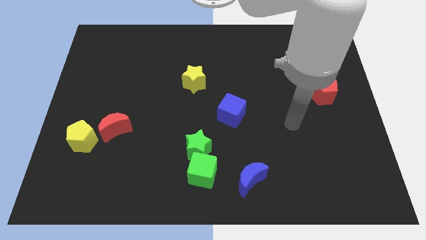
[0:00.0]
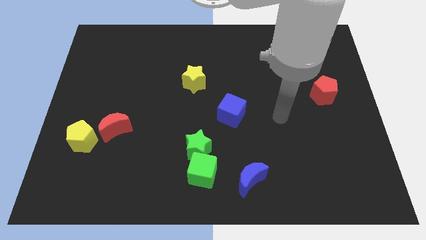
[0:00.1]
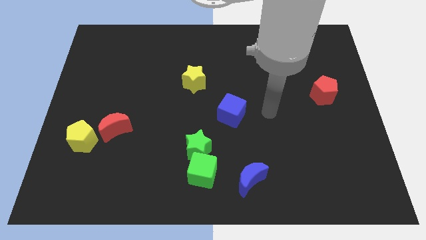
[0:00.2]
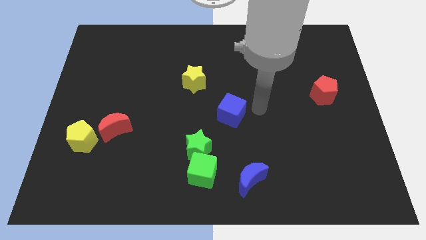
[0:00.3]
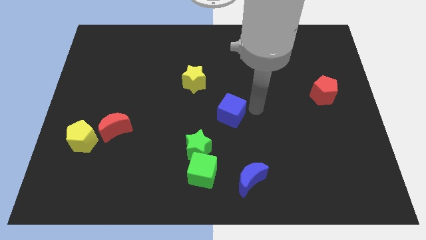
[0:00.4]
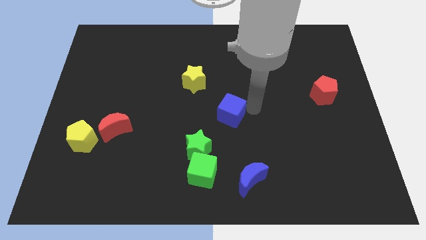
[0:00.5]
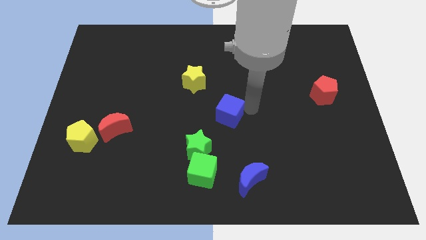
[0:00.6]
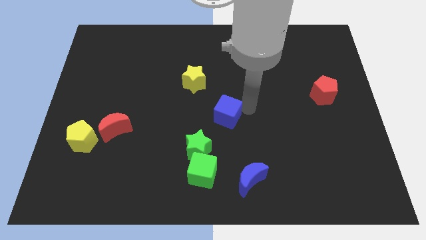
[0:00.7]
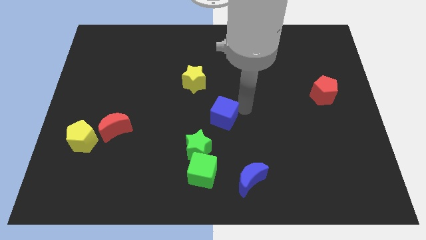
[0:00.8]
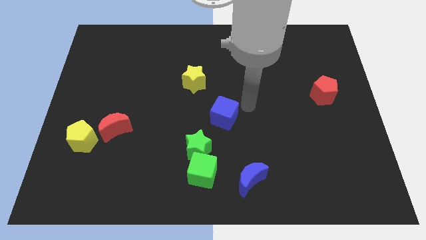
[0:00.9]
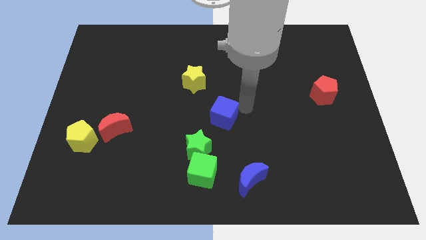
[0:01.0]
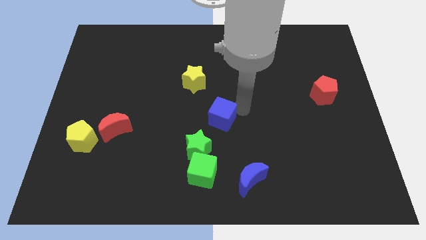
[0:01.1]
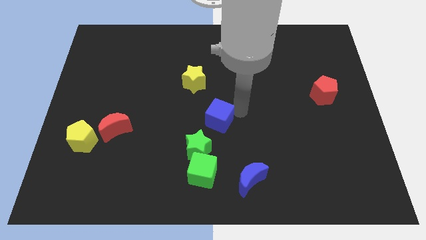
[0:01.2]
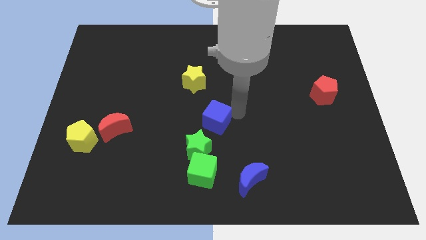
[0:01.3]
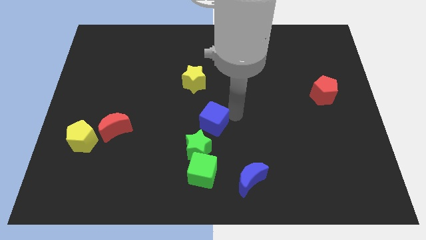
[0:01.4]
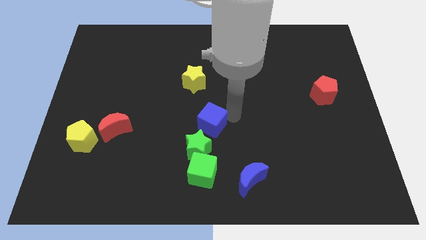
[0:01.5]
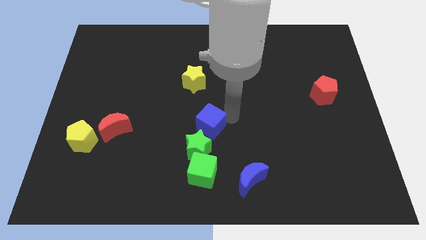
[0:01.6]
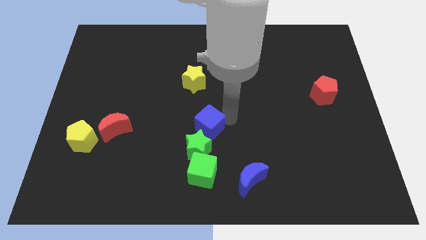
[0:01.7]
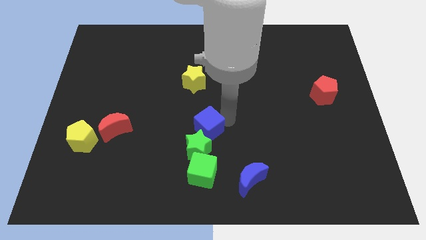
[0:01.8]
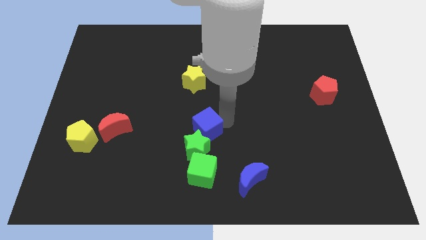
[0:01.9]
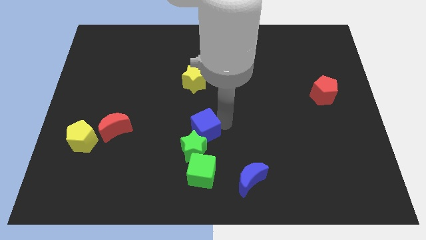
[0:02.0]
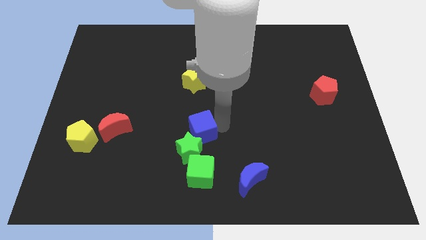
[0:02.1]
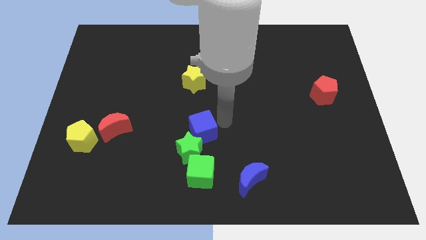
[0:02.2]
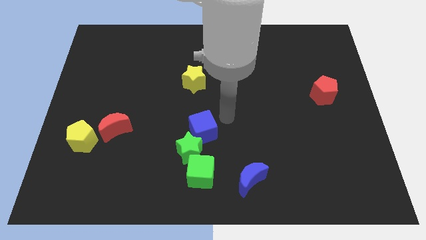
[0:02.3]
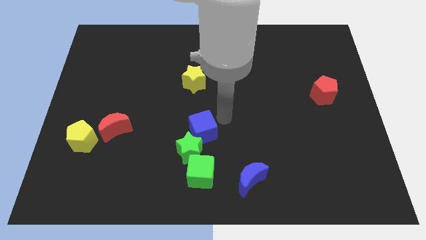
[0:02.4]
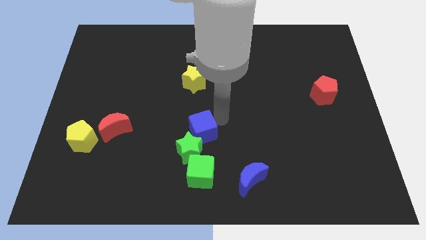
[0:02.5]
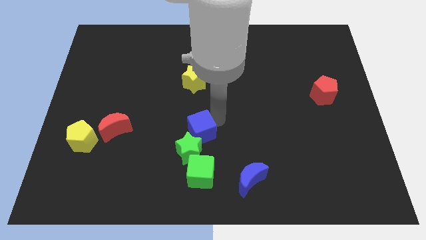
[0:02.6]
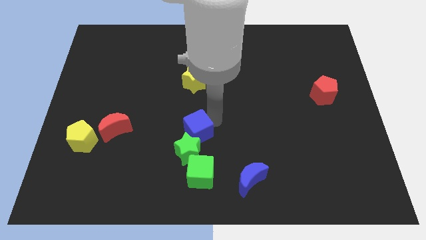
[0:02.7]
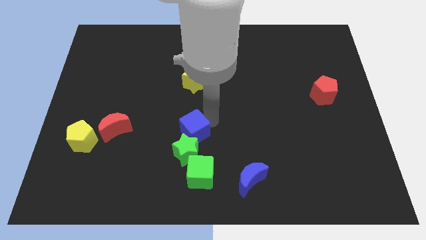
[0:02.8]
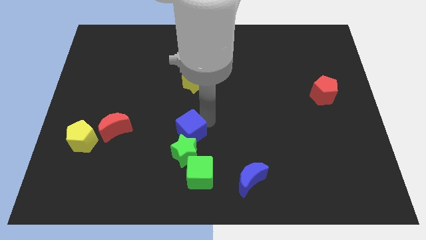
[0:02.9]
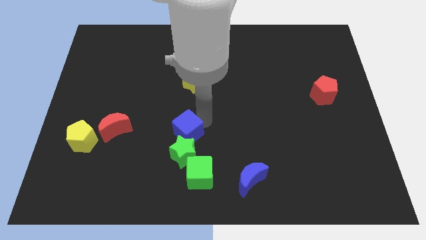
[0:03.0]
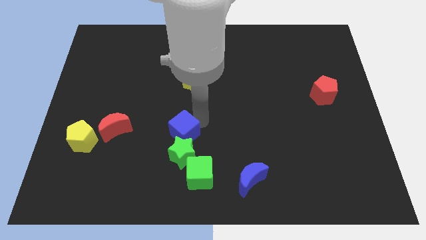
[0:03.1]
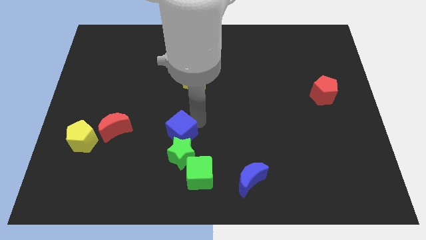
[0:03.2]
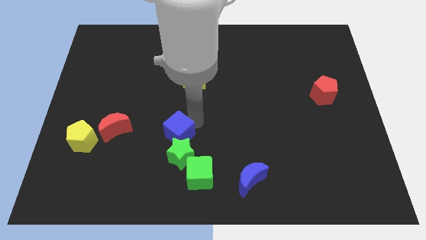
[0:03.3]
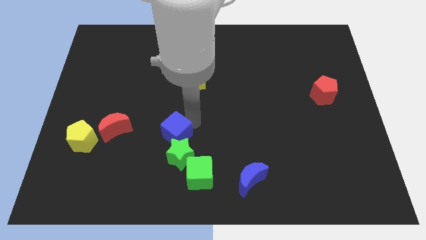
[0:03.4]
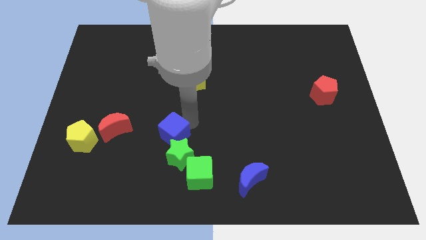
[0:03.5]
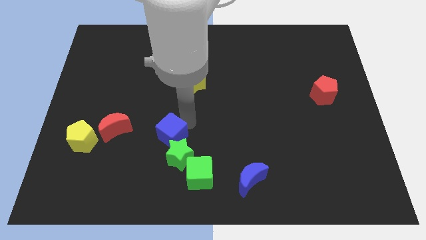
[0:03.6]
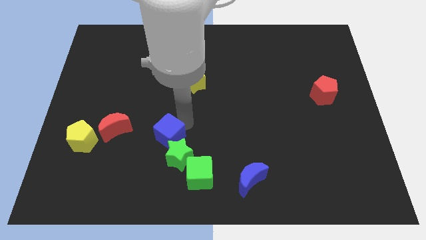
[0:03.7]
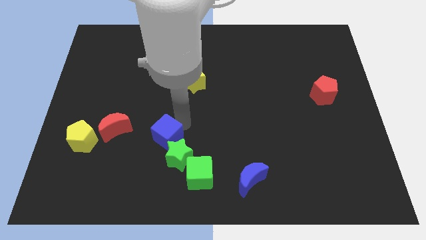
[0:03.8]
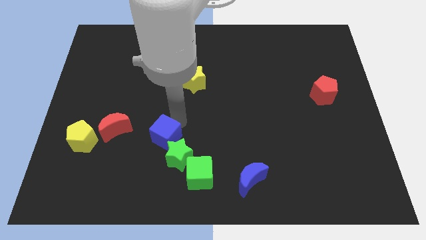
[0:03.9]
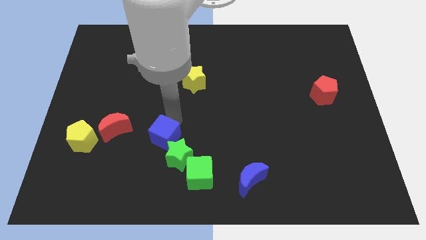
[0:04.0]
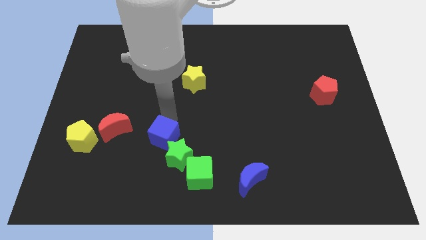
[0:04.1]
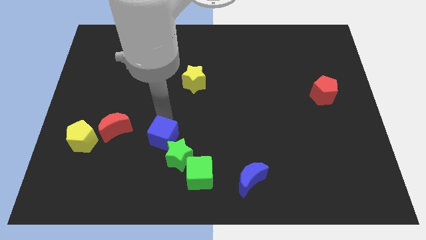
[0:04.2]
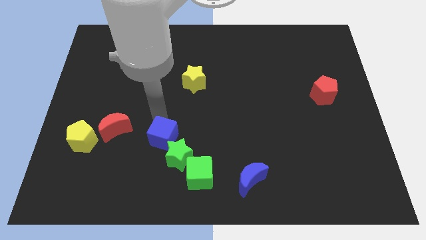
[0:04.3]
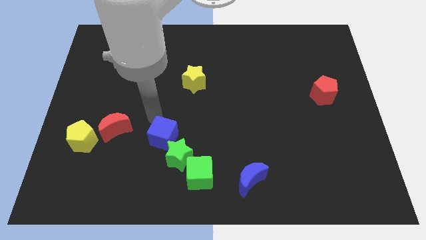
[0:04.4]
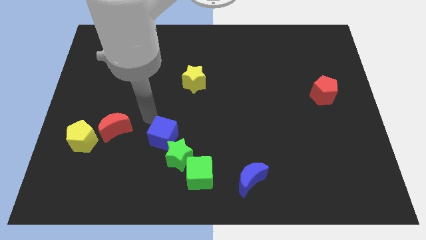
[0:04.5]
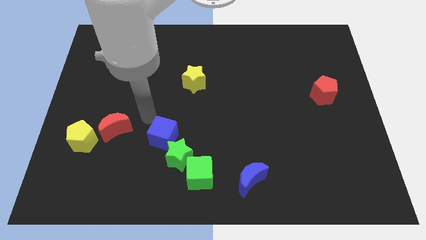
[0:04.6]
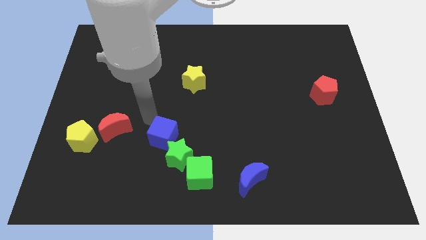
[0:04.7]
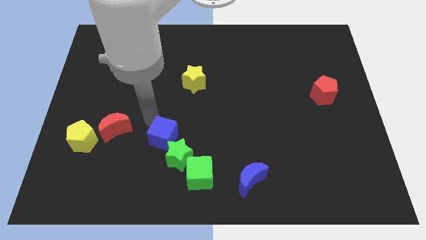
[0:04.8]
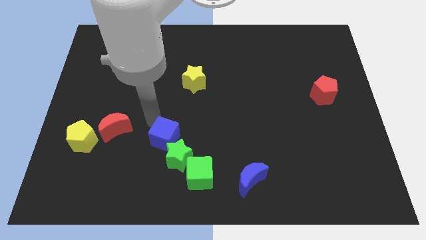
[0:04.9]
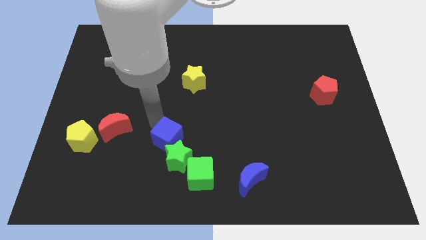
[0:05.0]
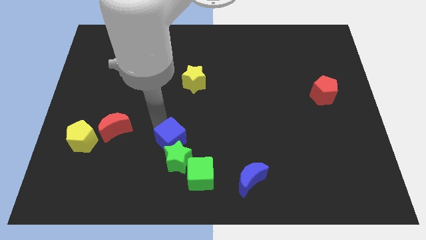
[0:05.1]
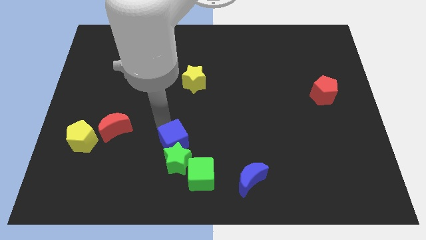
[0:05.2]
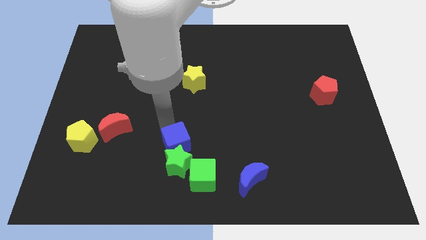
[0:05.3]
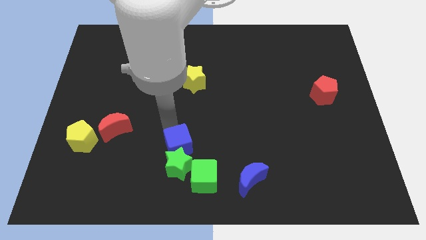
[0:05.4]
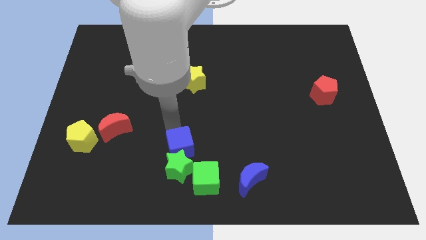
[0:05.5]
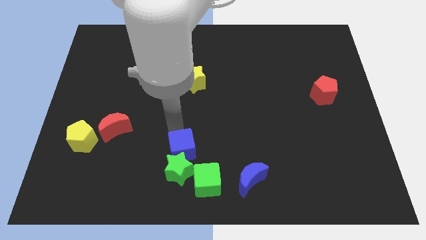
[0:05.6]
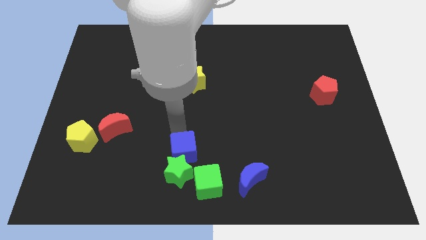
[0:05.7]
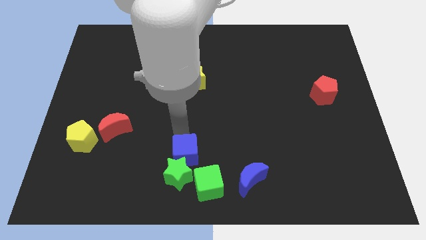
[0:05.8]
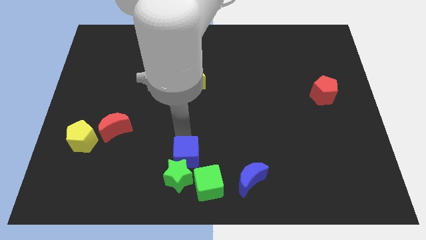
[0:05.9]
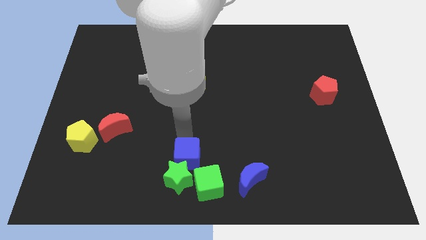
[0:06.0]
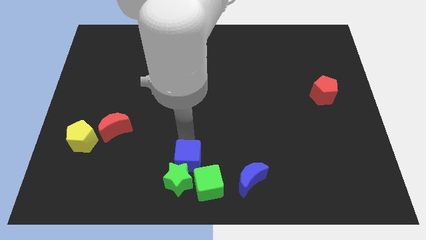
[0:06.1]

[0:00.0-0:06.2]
put the blue cube left of the blue moon

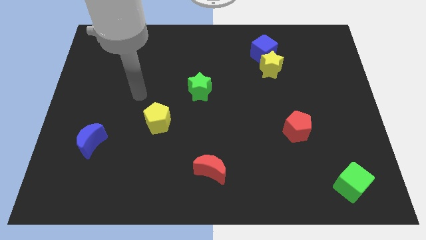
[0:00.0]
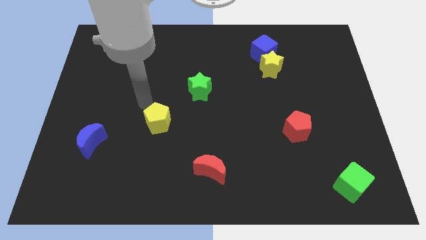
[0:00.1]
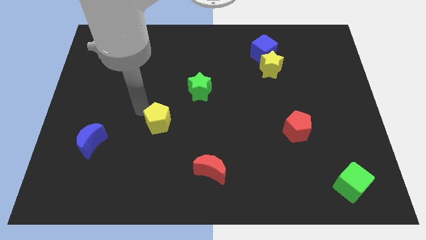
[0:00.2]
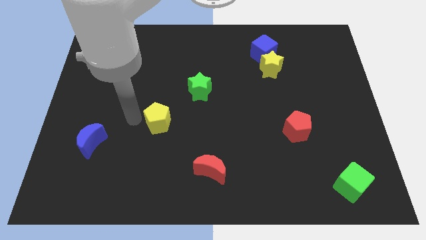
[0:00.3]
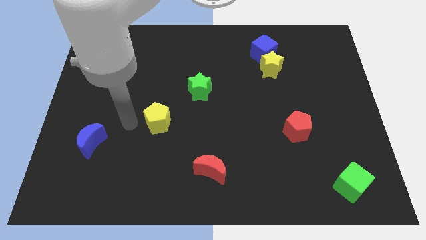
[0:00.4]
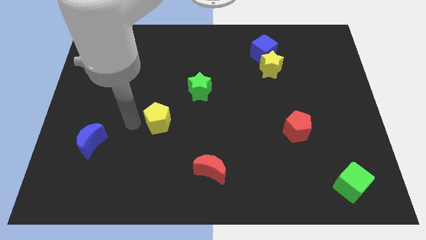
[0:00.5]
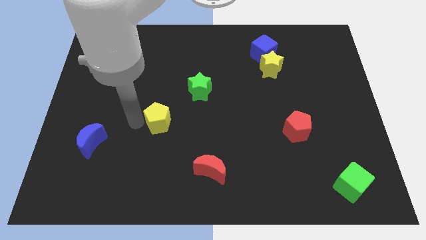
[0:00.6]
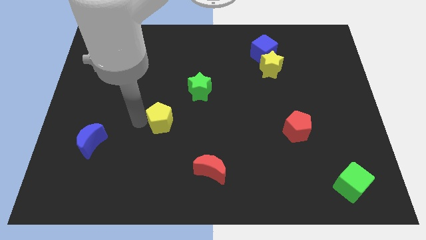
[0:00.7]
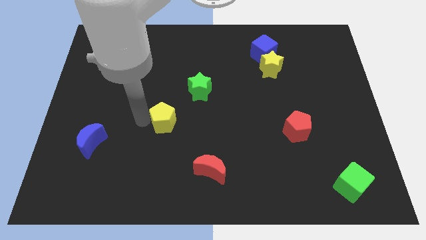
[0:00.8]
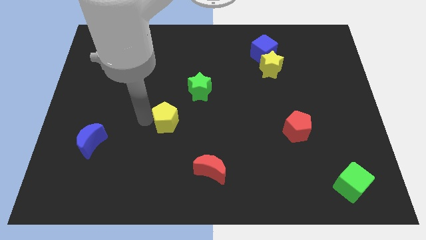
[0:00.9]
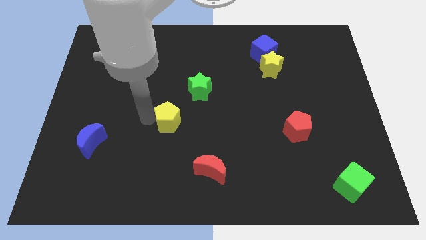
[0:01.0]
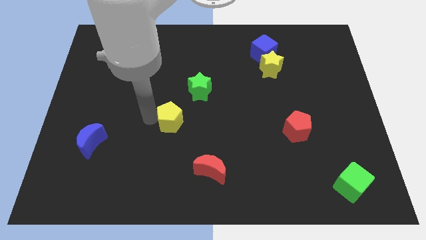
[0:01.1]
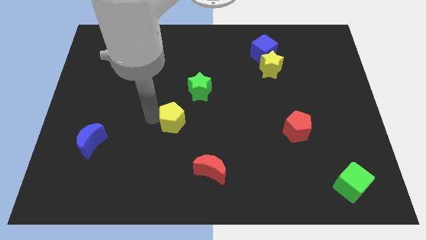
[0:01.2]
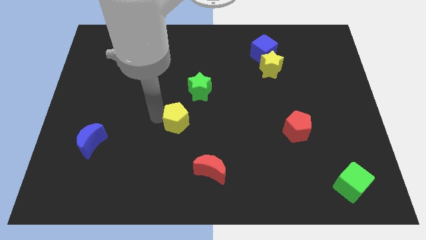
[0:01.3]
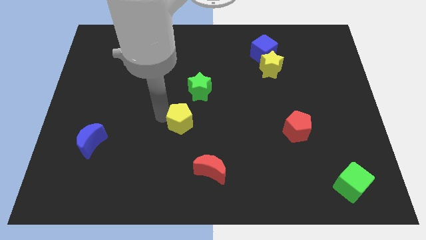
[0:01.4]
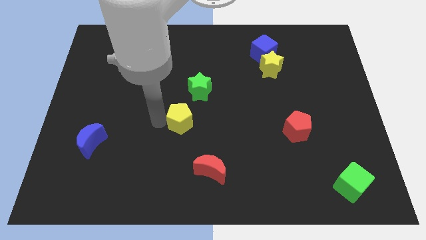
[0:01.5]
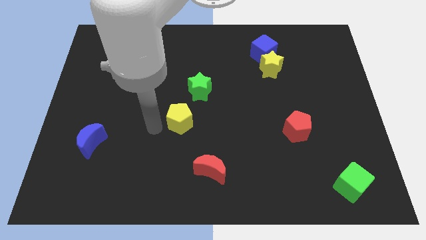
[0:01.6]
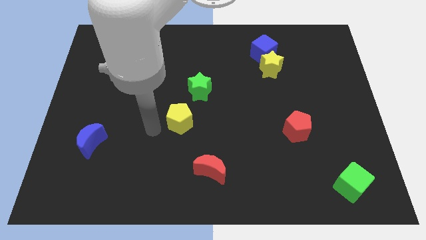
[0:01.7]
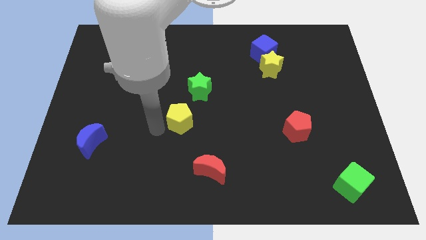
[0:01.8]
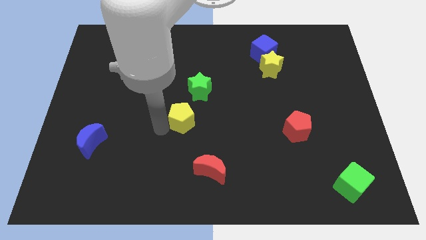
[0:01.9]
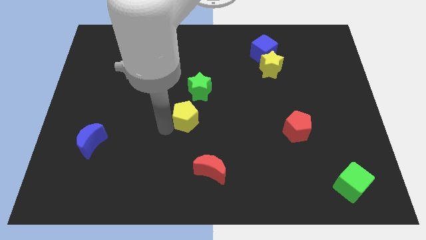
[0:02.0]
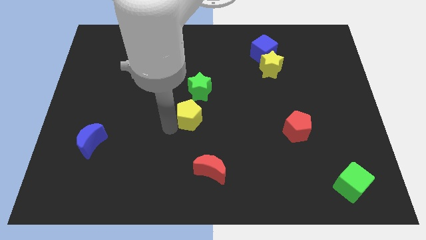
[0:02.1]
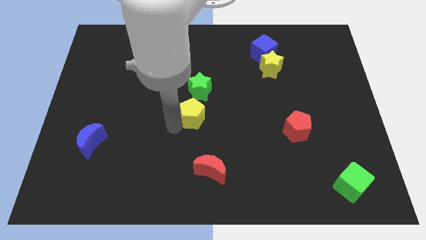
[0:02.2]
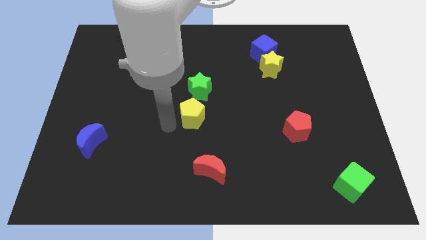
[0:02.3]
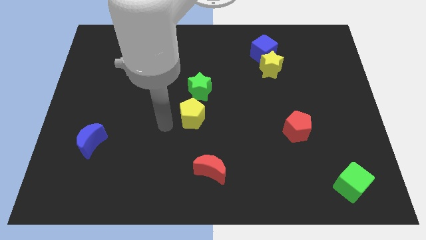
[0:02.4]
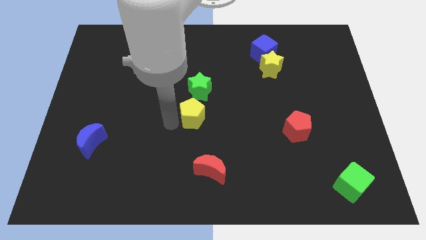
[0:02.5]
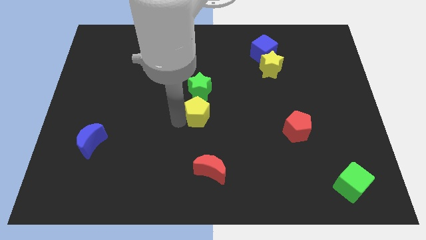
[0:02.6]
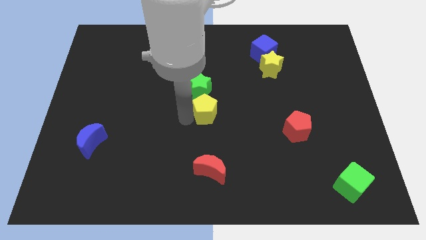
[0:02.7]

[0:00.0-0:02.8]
put the yellow pentagon to the bottom right side of the green star
